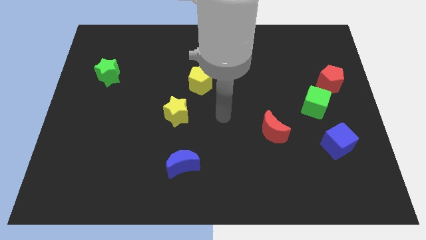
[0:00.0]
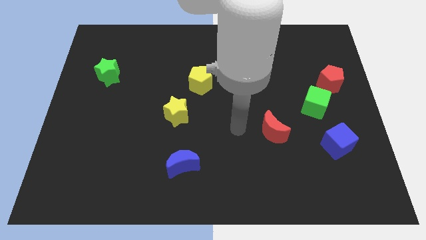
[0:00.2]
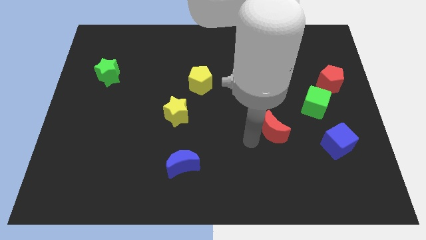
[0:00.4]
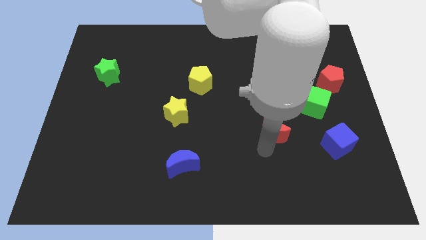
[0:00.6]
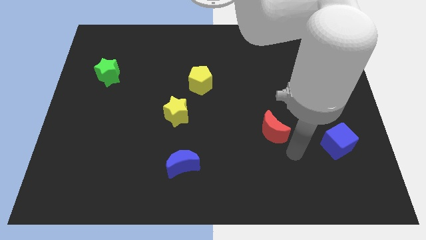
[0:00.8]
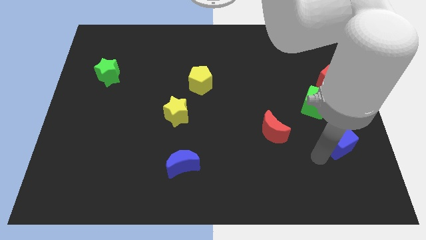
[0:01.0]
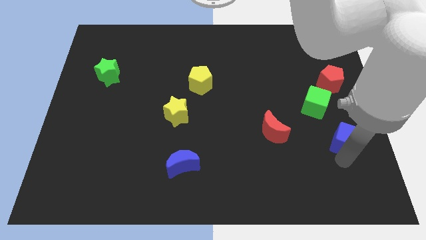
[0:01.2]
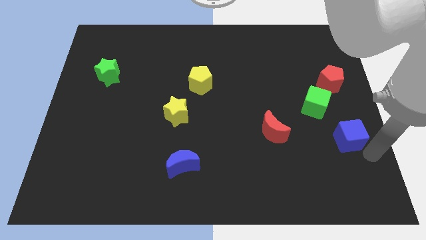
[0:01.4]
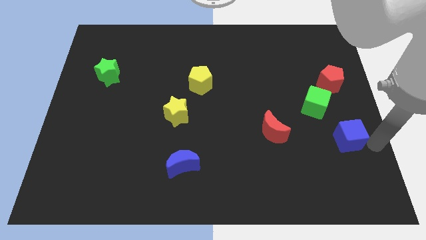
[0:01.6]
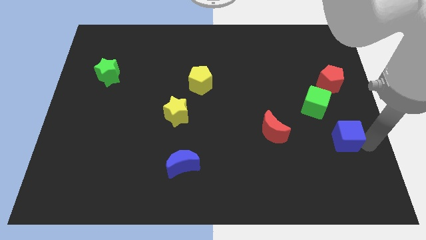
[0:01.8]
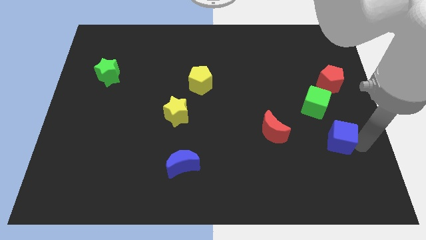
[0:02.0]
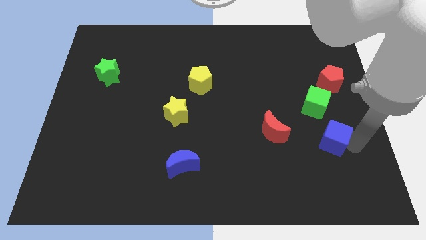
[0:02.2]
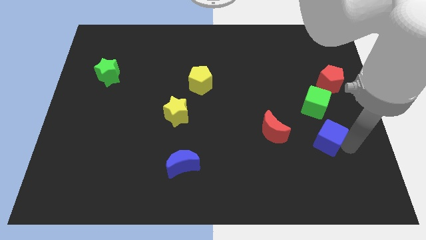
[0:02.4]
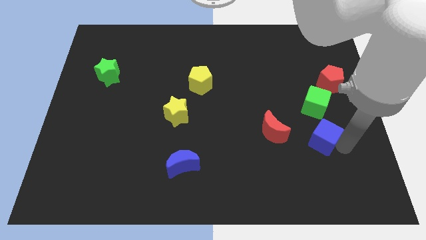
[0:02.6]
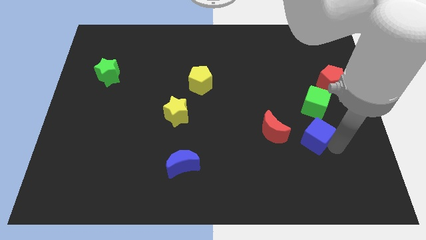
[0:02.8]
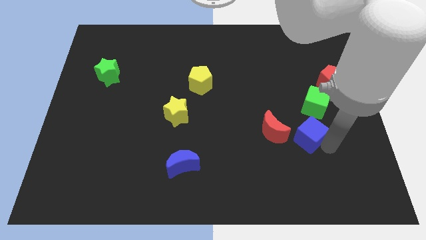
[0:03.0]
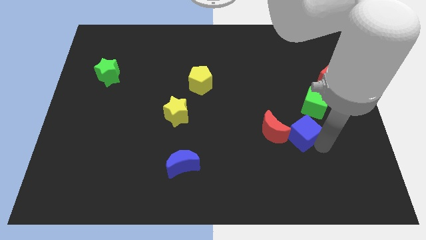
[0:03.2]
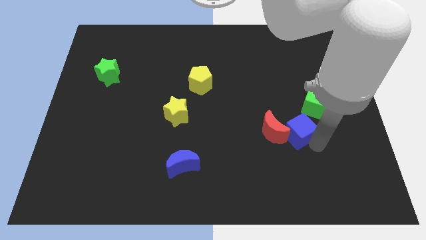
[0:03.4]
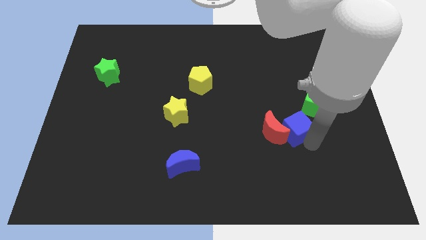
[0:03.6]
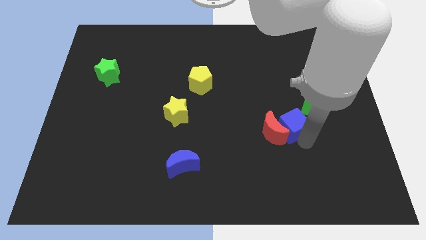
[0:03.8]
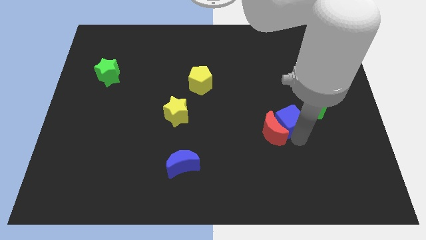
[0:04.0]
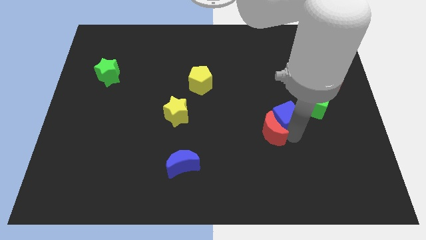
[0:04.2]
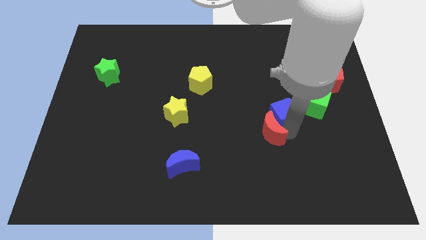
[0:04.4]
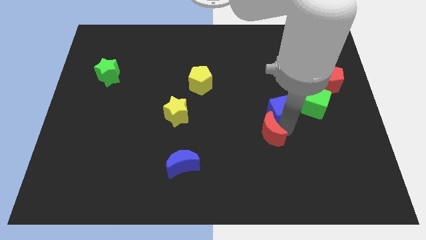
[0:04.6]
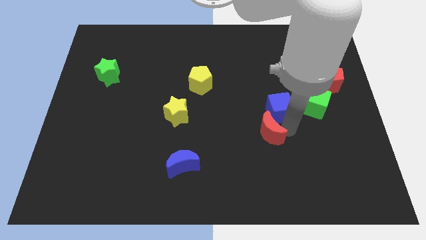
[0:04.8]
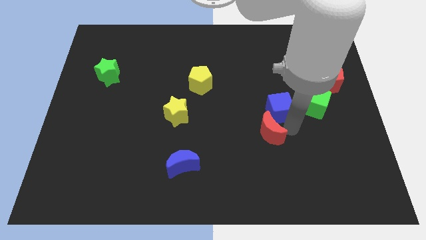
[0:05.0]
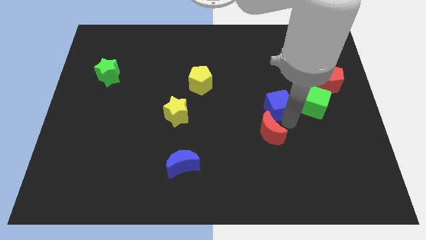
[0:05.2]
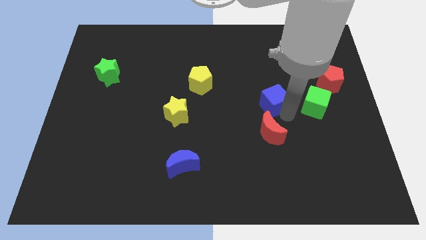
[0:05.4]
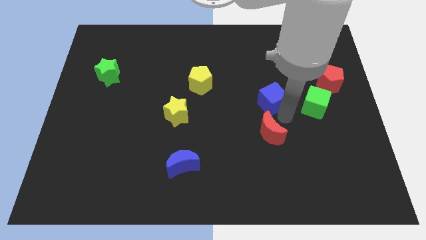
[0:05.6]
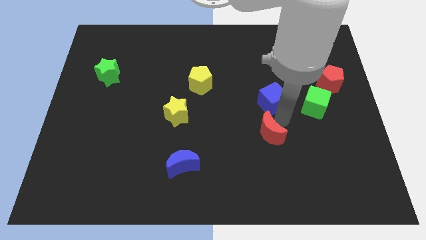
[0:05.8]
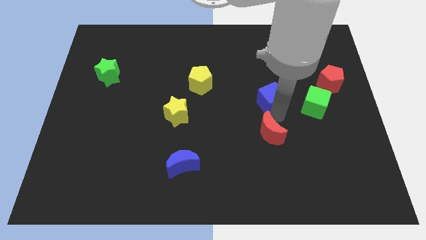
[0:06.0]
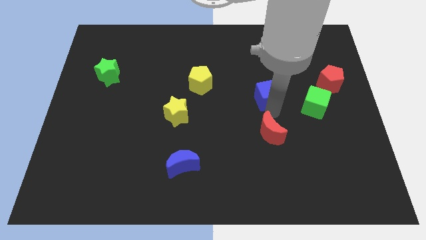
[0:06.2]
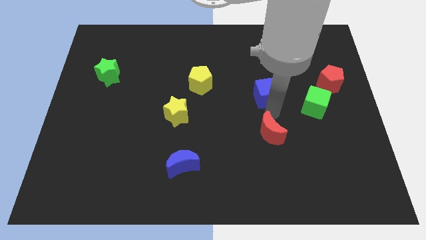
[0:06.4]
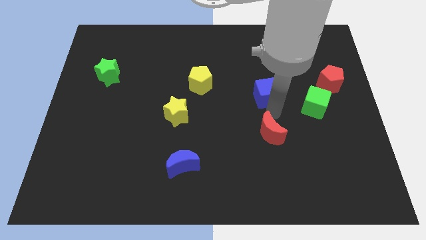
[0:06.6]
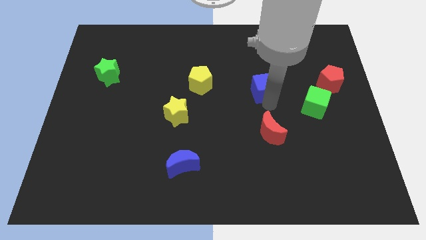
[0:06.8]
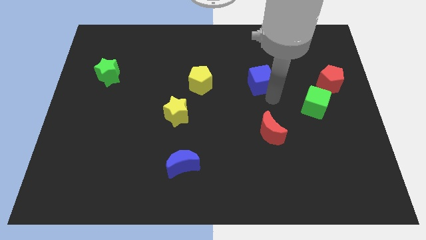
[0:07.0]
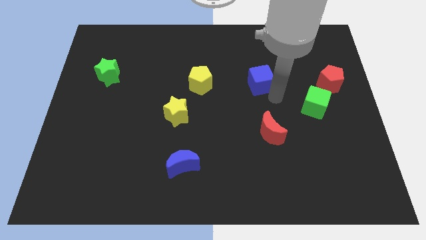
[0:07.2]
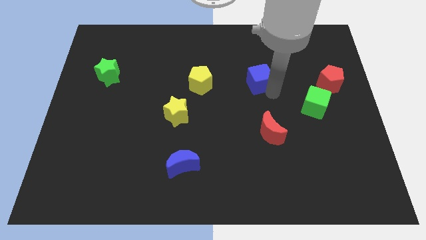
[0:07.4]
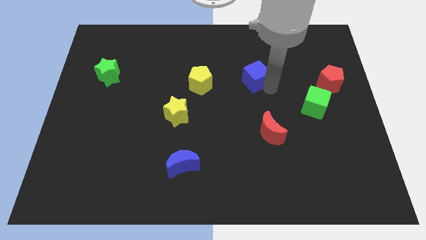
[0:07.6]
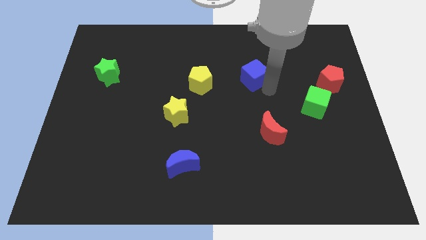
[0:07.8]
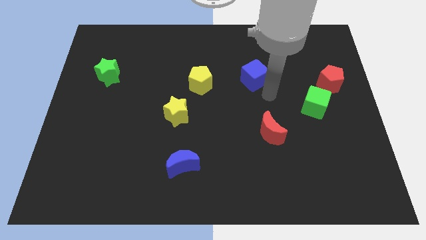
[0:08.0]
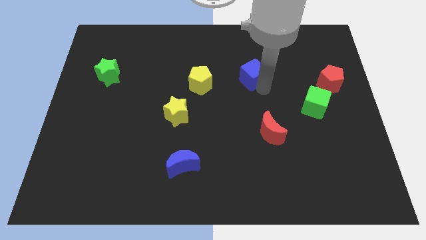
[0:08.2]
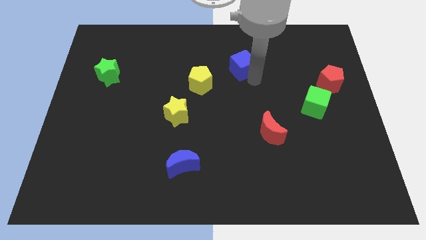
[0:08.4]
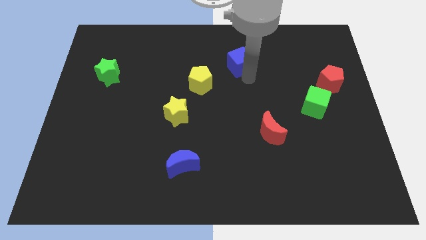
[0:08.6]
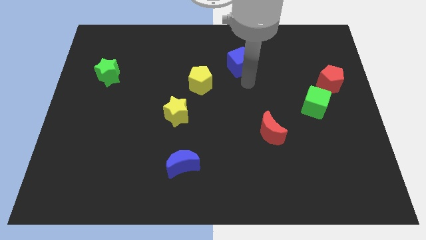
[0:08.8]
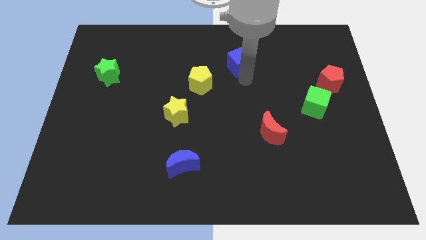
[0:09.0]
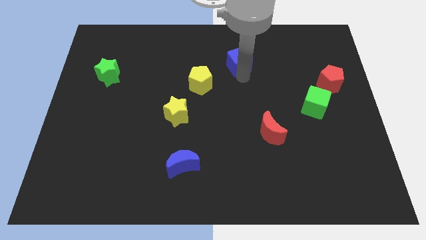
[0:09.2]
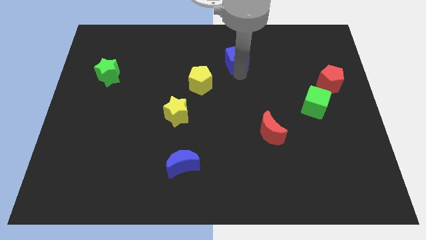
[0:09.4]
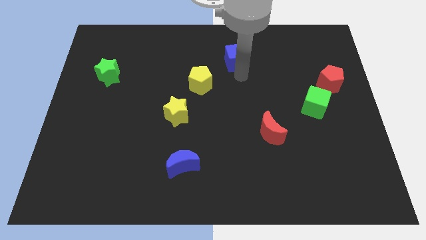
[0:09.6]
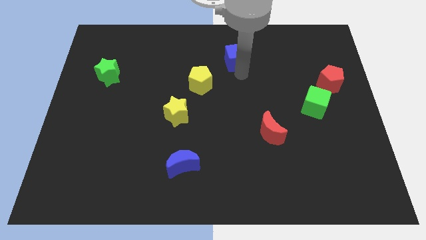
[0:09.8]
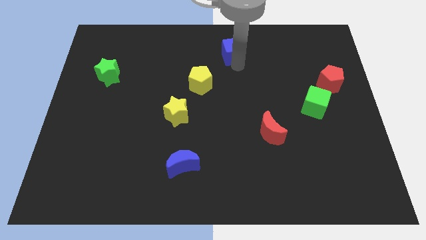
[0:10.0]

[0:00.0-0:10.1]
move the blue cube to the towards your base

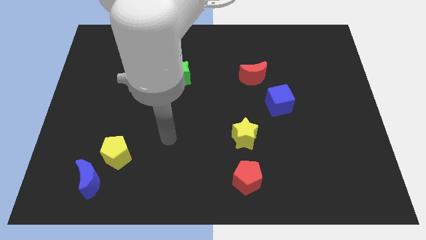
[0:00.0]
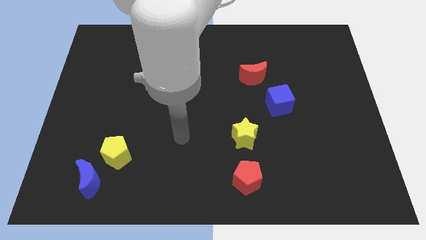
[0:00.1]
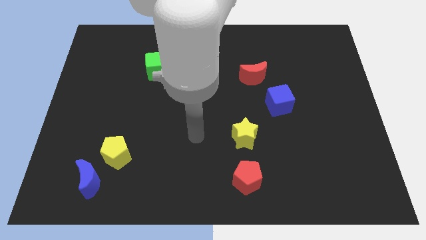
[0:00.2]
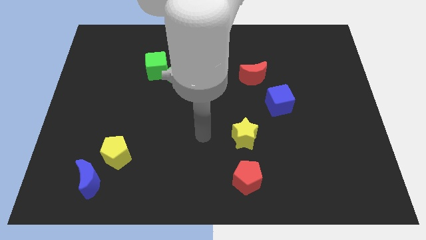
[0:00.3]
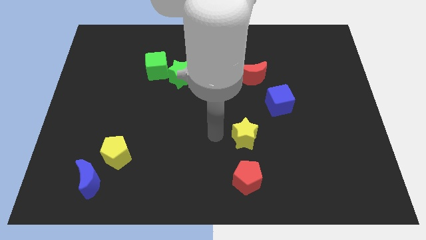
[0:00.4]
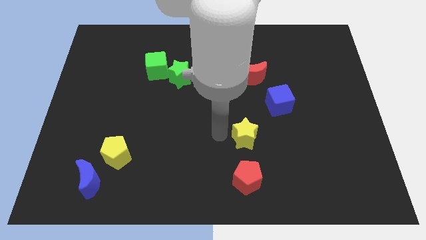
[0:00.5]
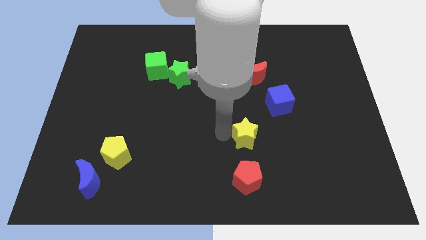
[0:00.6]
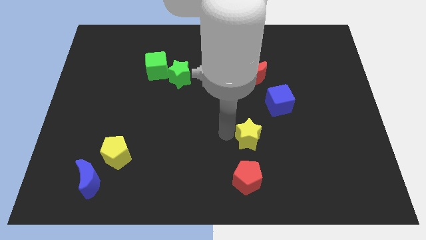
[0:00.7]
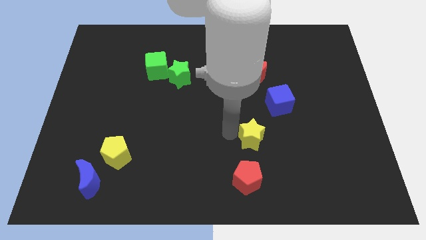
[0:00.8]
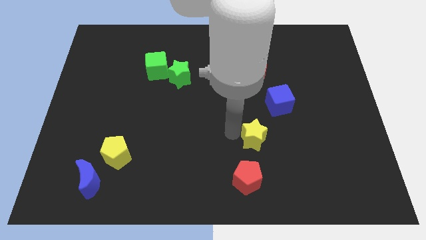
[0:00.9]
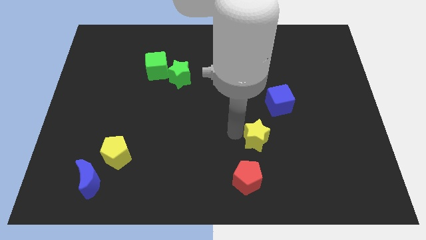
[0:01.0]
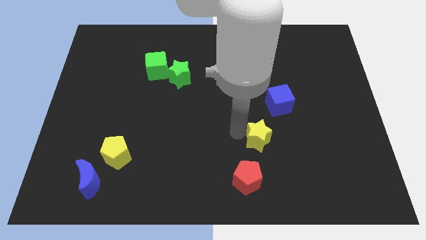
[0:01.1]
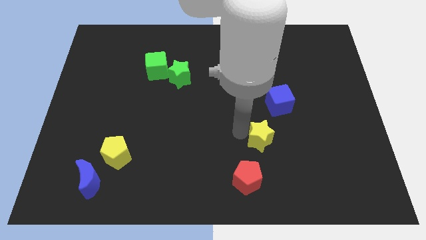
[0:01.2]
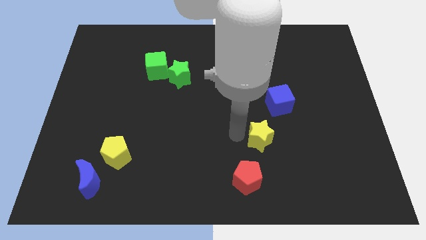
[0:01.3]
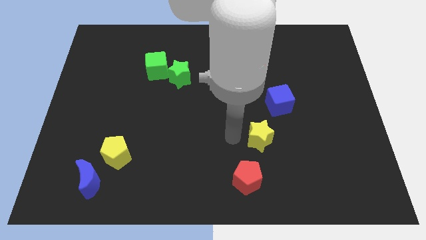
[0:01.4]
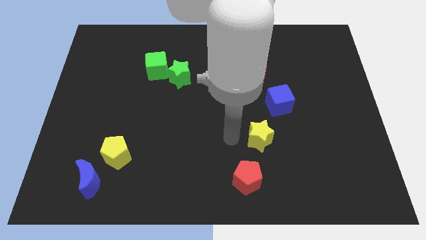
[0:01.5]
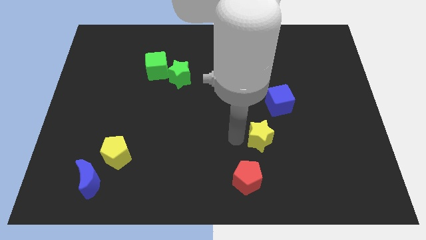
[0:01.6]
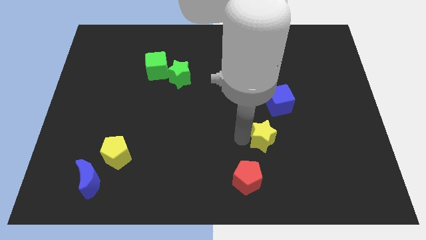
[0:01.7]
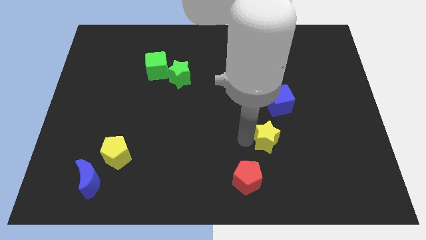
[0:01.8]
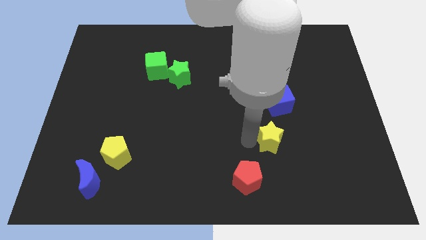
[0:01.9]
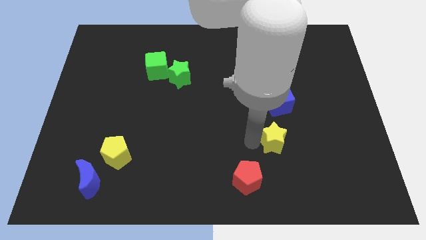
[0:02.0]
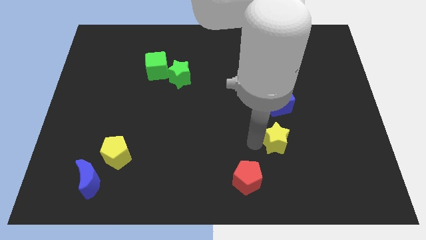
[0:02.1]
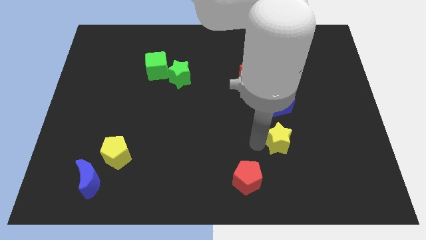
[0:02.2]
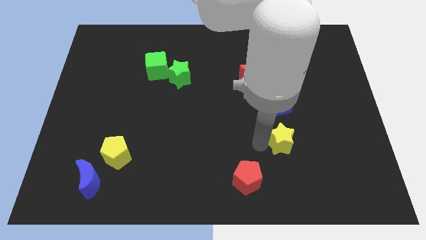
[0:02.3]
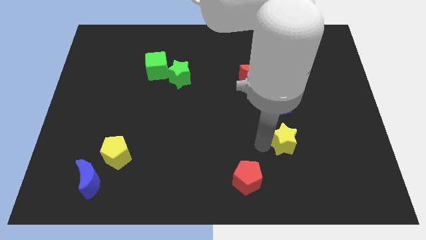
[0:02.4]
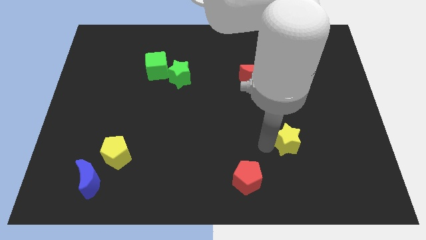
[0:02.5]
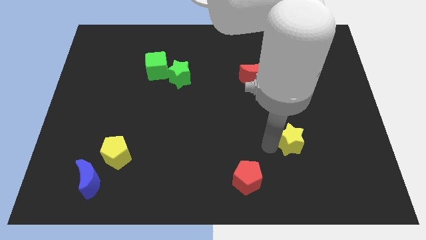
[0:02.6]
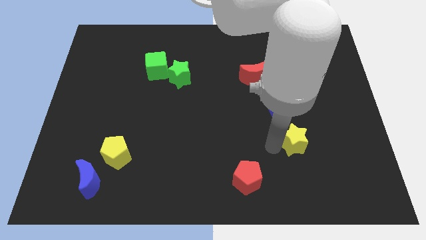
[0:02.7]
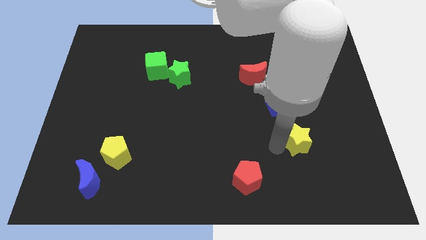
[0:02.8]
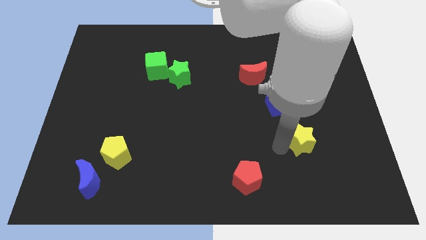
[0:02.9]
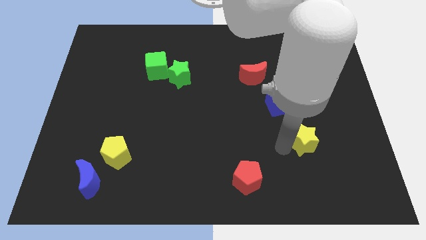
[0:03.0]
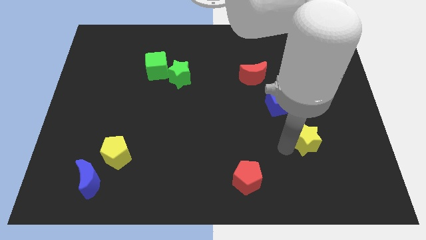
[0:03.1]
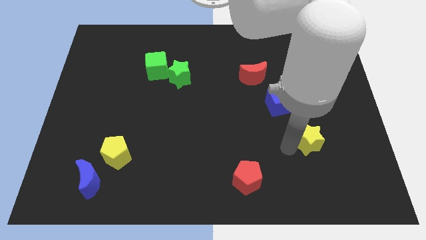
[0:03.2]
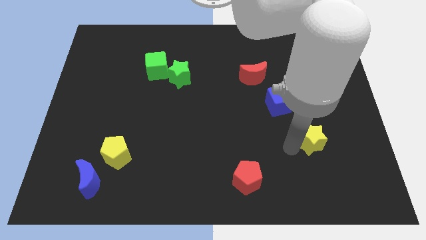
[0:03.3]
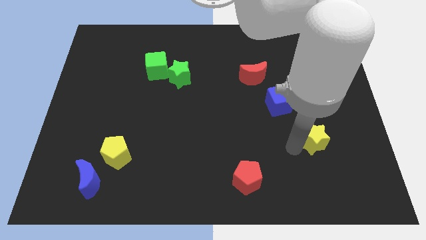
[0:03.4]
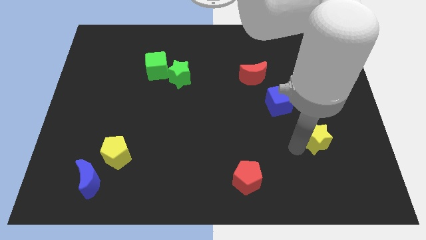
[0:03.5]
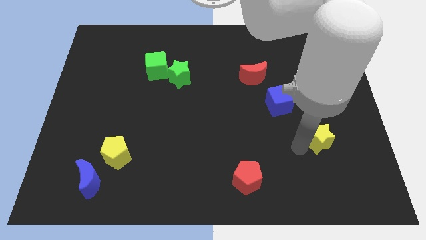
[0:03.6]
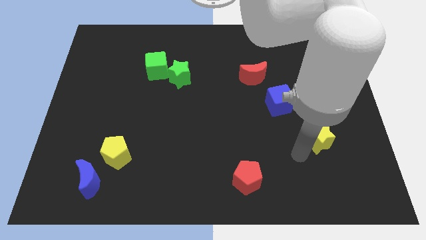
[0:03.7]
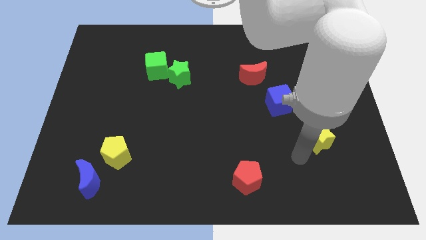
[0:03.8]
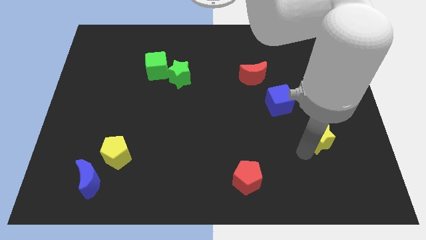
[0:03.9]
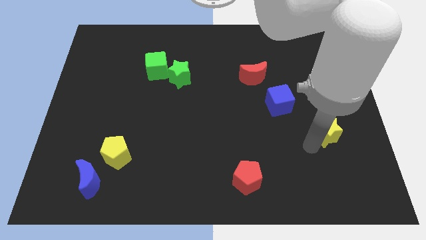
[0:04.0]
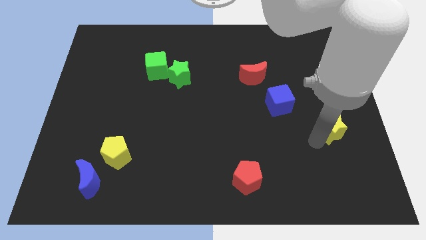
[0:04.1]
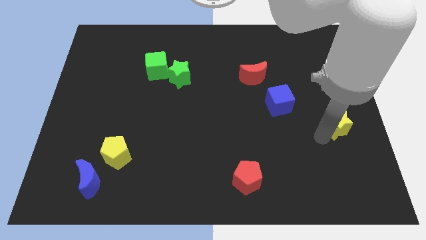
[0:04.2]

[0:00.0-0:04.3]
slide the yellow star to the right side
